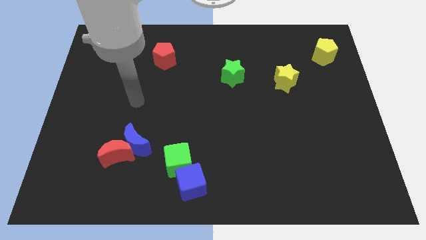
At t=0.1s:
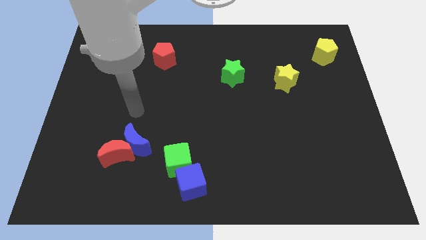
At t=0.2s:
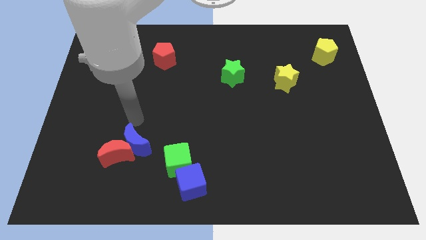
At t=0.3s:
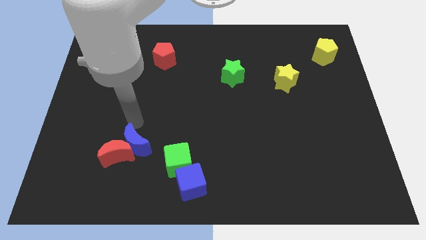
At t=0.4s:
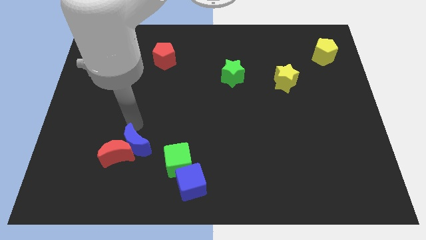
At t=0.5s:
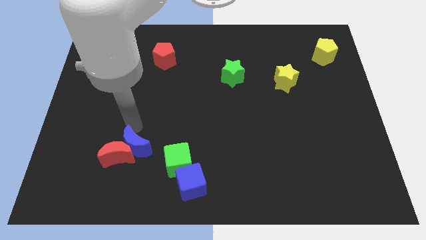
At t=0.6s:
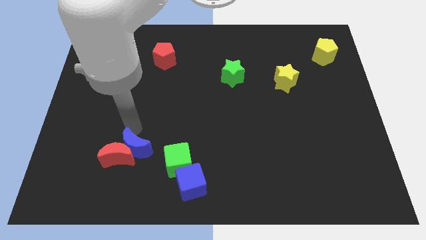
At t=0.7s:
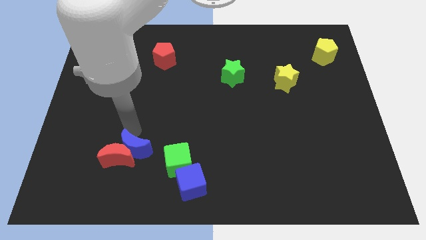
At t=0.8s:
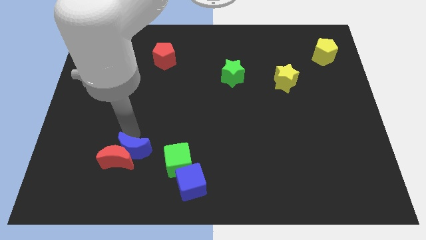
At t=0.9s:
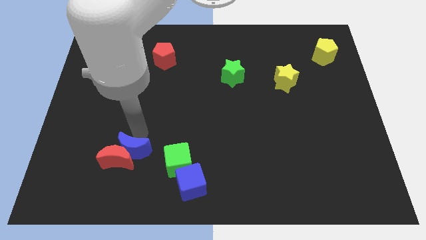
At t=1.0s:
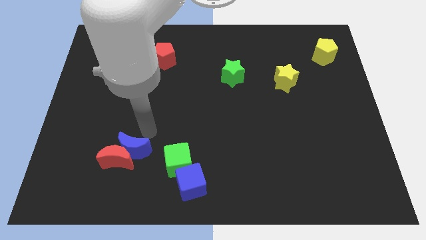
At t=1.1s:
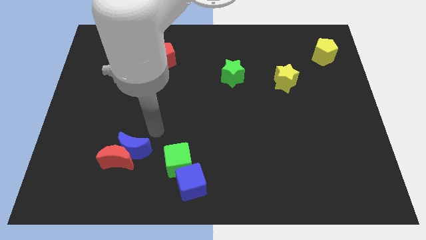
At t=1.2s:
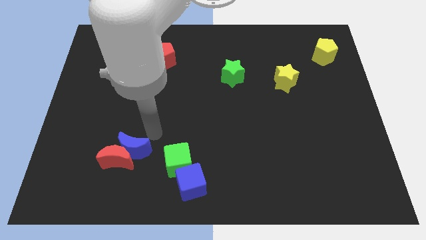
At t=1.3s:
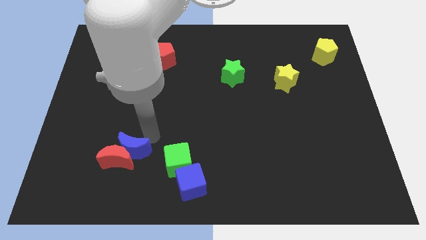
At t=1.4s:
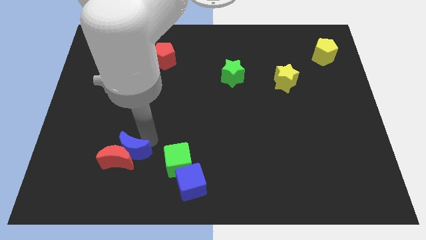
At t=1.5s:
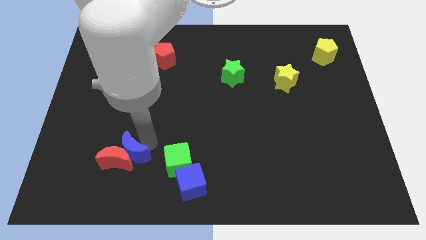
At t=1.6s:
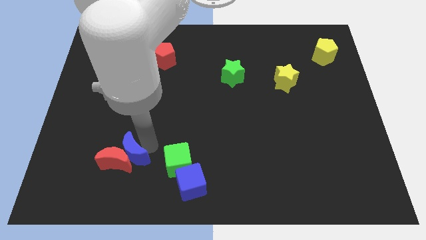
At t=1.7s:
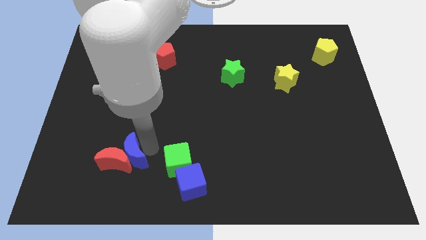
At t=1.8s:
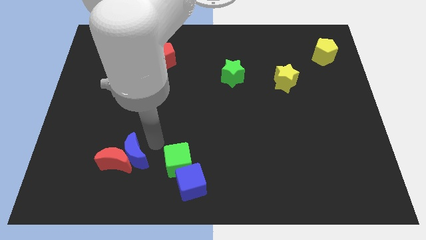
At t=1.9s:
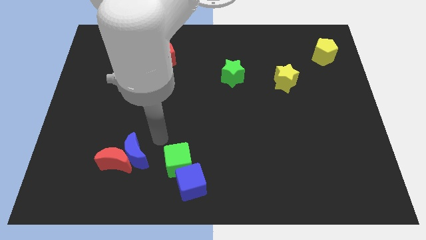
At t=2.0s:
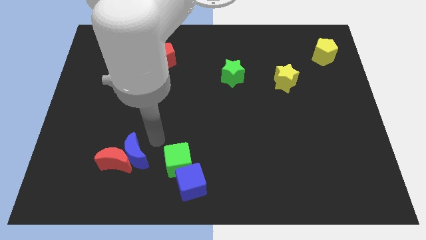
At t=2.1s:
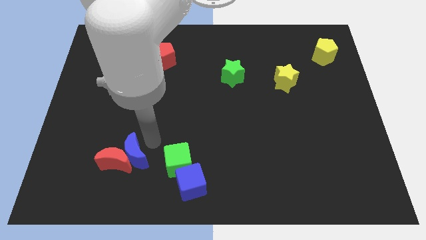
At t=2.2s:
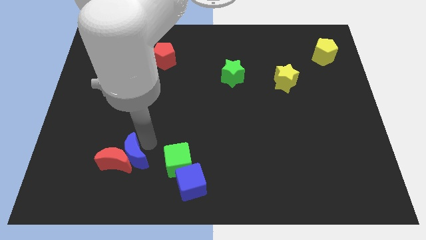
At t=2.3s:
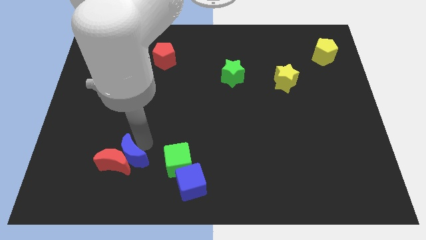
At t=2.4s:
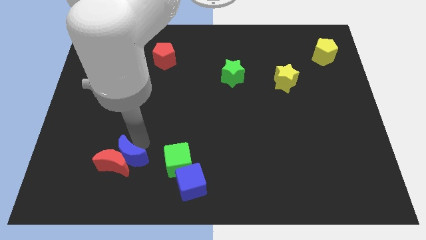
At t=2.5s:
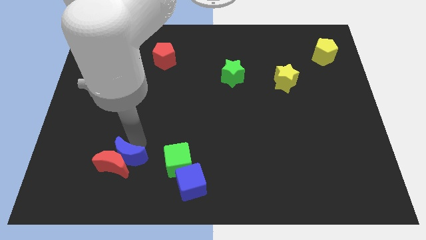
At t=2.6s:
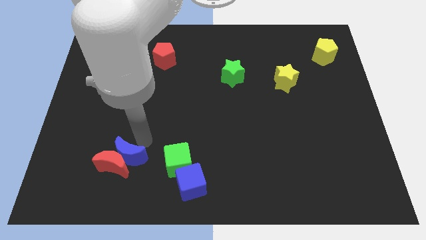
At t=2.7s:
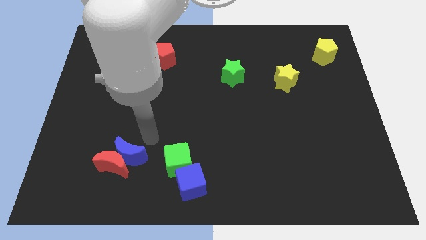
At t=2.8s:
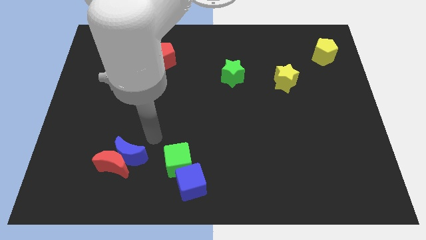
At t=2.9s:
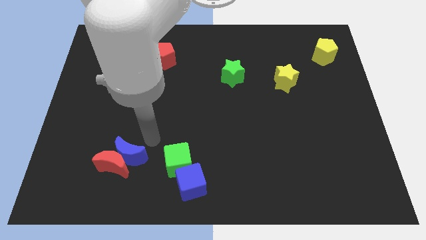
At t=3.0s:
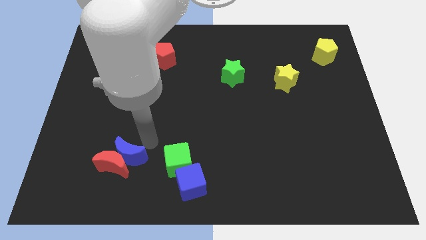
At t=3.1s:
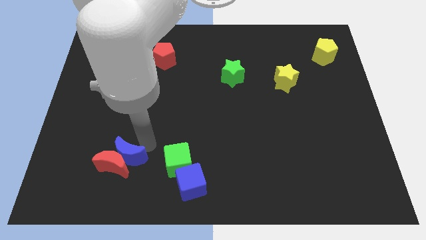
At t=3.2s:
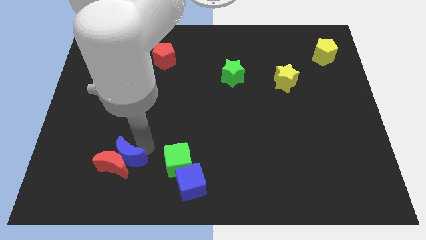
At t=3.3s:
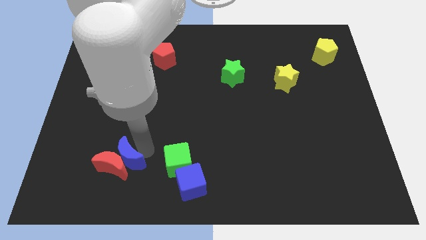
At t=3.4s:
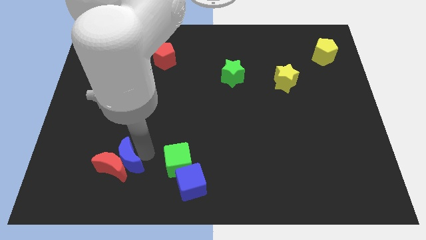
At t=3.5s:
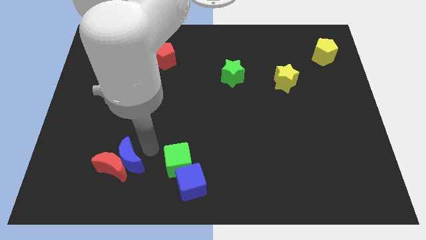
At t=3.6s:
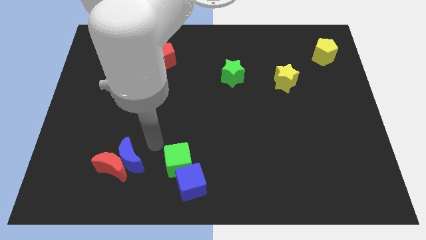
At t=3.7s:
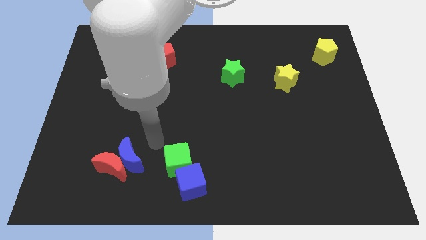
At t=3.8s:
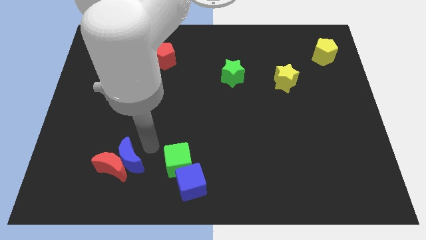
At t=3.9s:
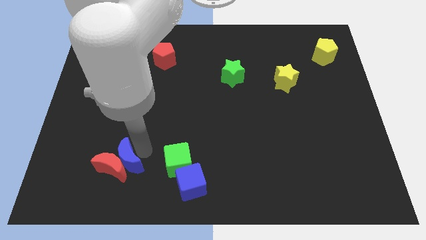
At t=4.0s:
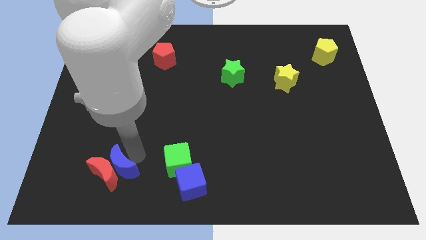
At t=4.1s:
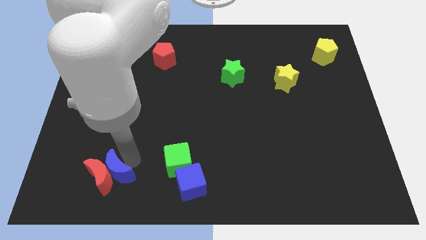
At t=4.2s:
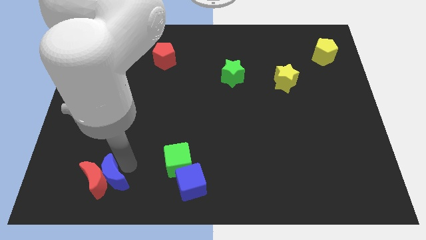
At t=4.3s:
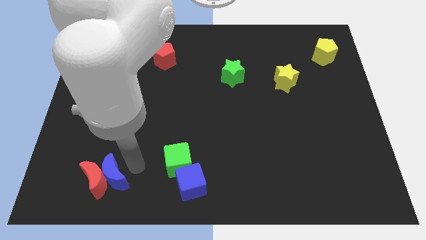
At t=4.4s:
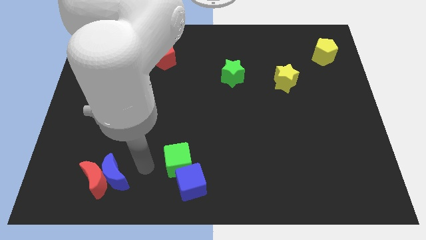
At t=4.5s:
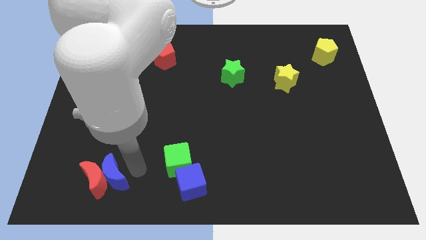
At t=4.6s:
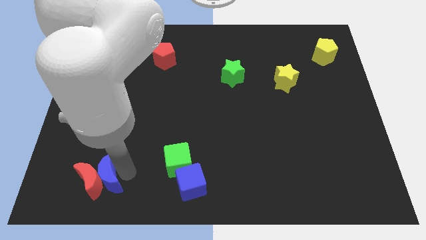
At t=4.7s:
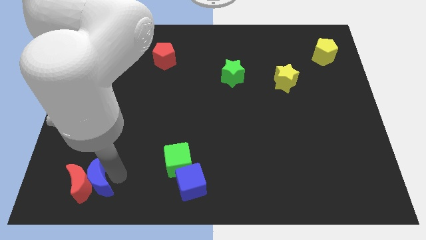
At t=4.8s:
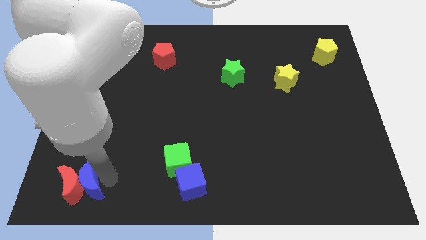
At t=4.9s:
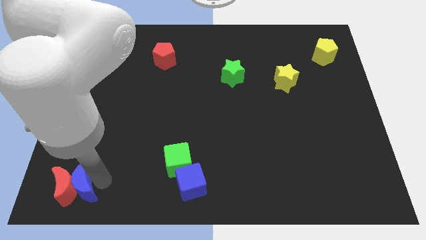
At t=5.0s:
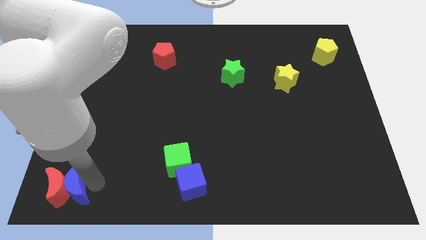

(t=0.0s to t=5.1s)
move the blue moon to the bottom left of the board

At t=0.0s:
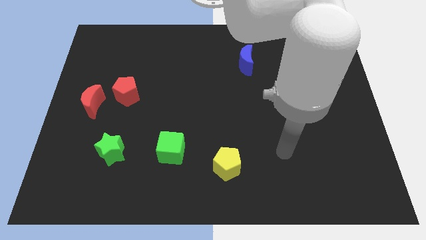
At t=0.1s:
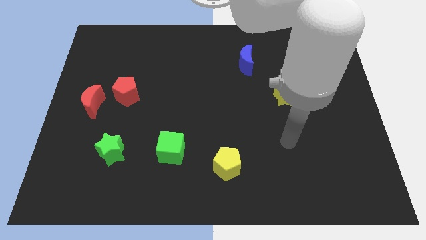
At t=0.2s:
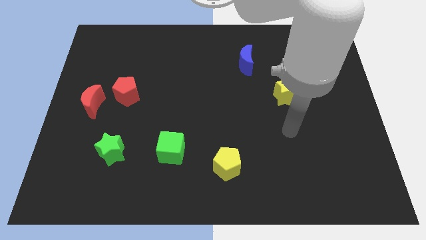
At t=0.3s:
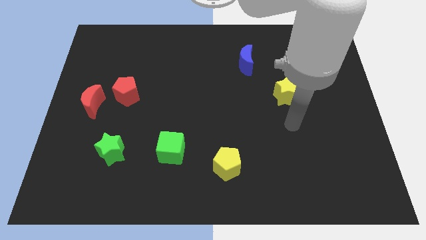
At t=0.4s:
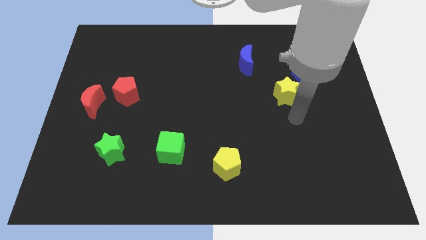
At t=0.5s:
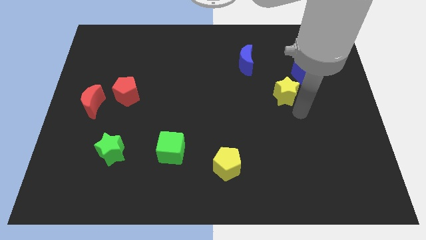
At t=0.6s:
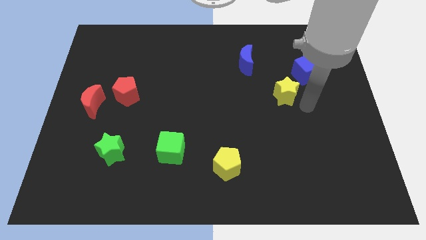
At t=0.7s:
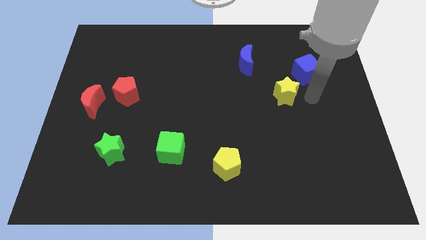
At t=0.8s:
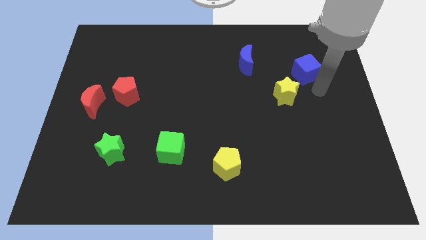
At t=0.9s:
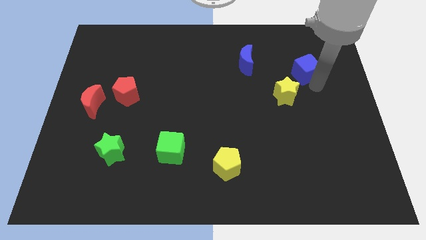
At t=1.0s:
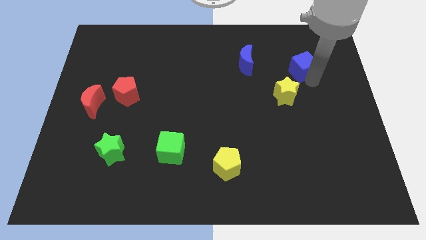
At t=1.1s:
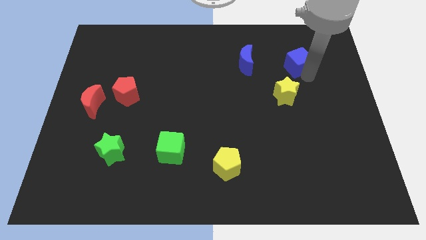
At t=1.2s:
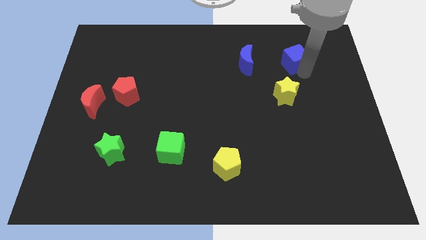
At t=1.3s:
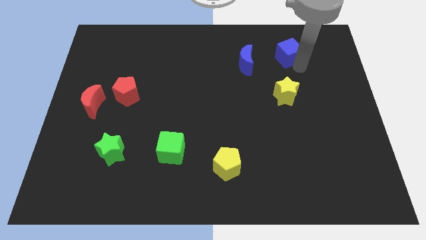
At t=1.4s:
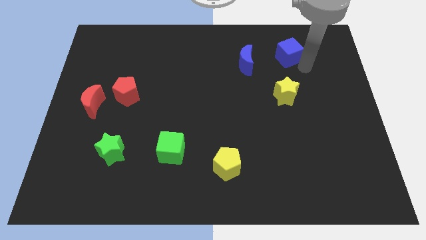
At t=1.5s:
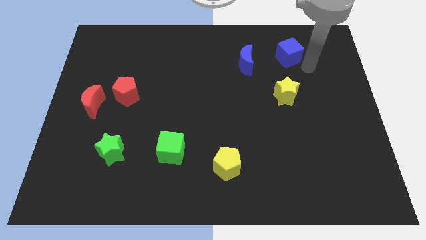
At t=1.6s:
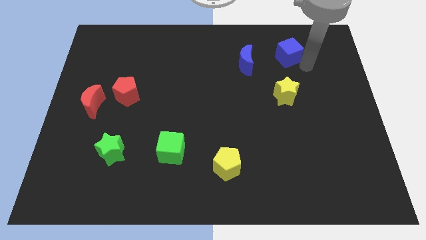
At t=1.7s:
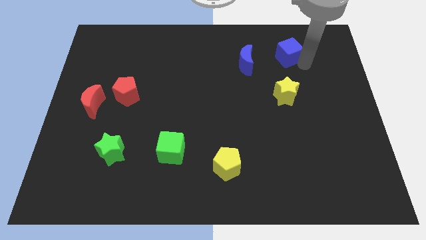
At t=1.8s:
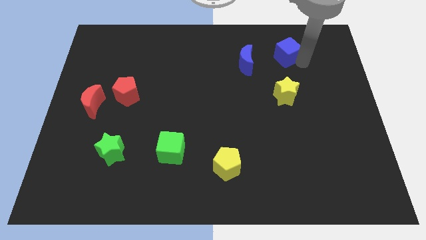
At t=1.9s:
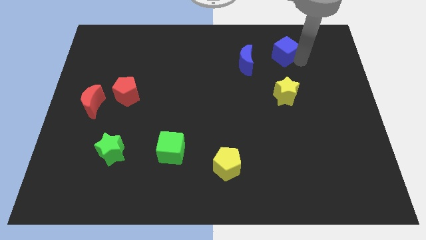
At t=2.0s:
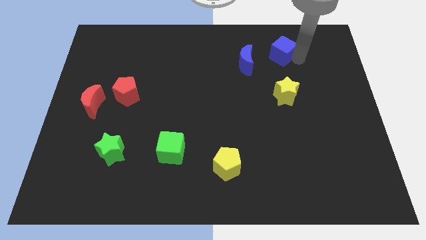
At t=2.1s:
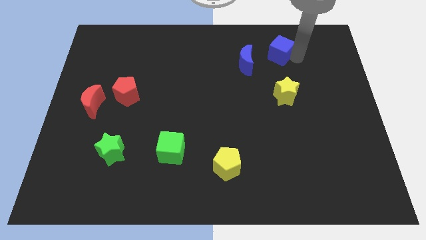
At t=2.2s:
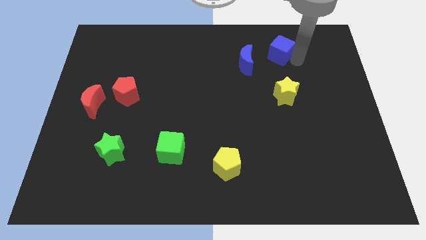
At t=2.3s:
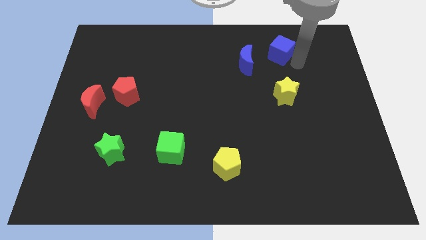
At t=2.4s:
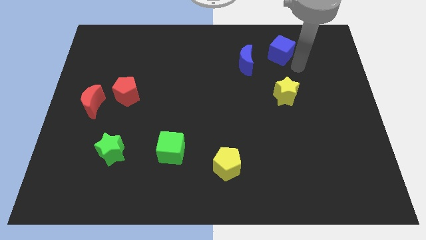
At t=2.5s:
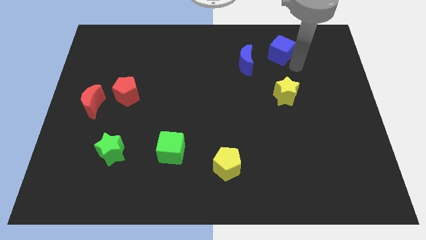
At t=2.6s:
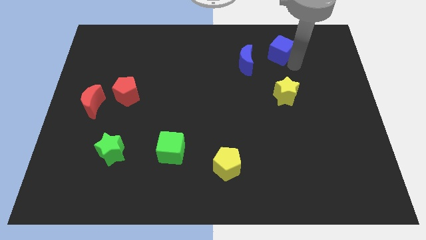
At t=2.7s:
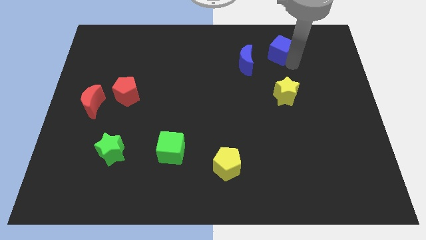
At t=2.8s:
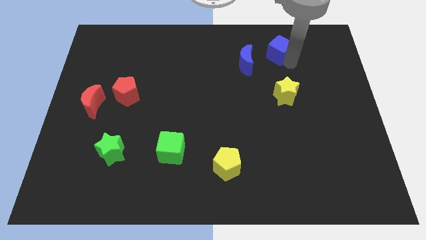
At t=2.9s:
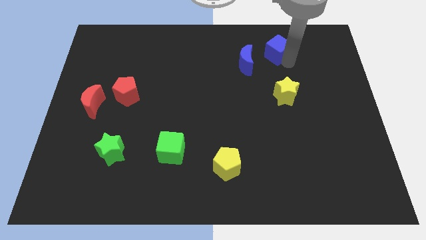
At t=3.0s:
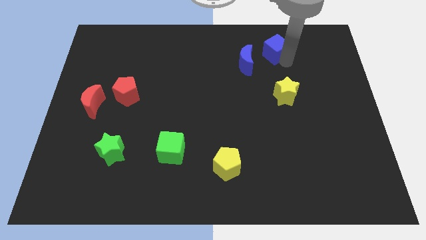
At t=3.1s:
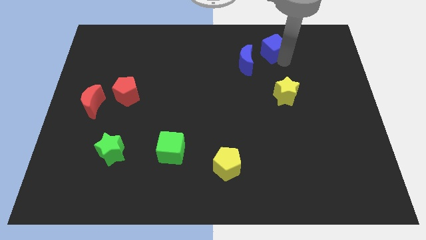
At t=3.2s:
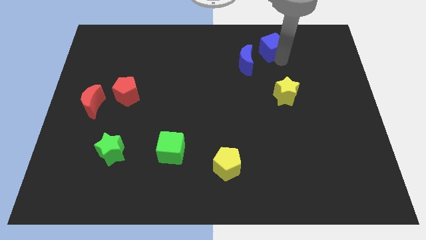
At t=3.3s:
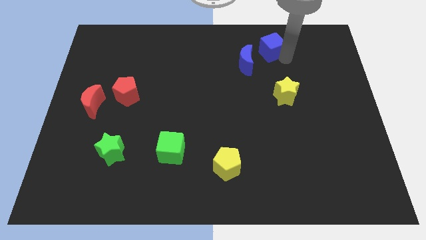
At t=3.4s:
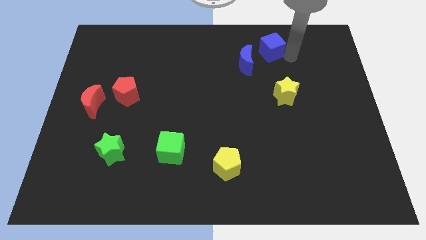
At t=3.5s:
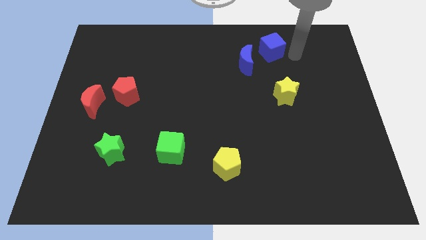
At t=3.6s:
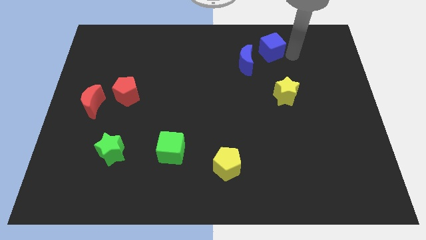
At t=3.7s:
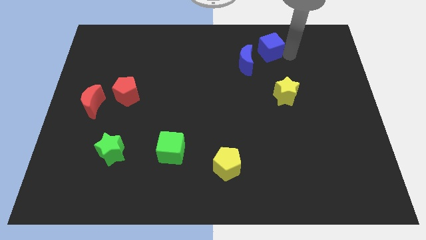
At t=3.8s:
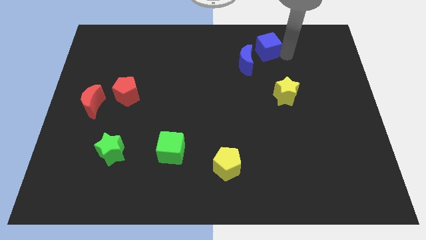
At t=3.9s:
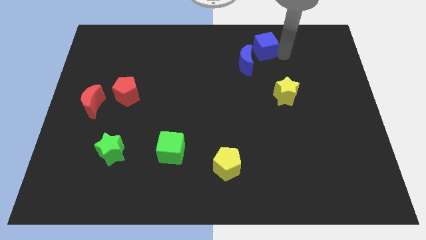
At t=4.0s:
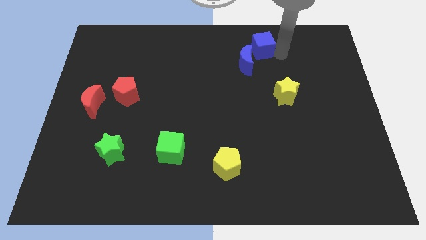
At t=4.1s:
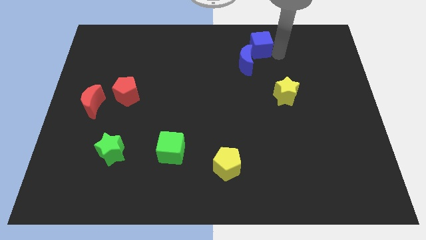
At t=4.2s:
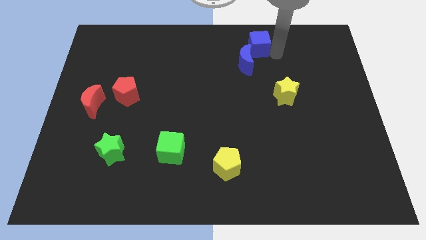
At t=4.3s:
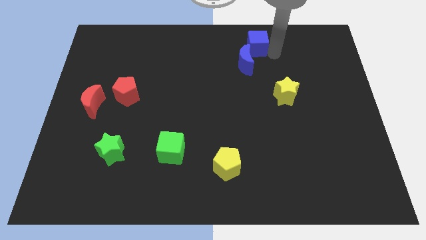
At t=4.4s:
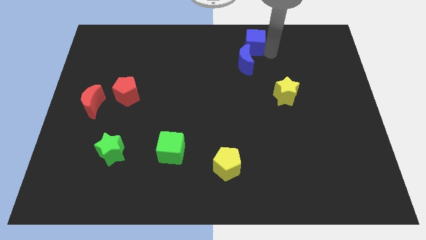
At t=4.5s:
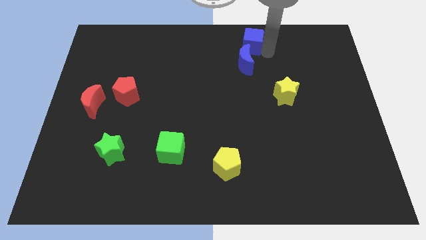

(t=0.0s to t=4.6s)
move the blue cube to the towards your base
